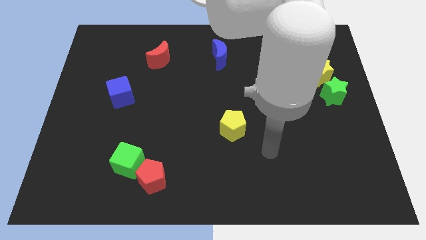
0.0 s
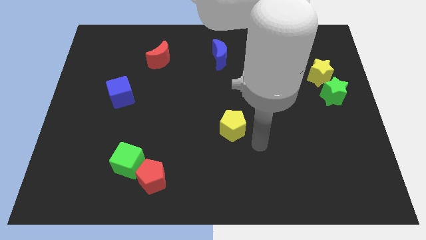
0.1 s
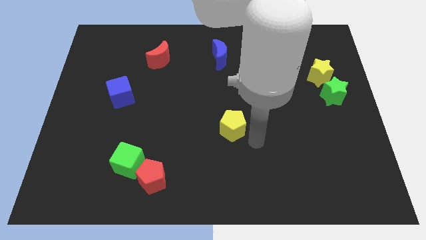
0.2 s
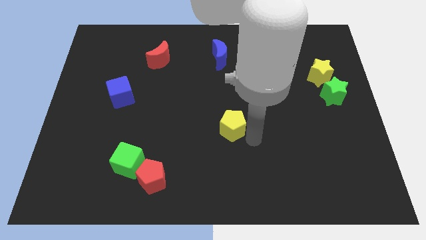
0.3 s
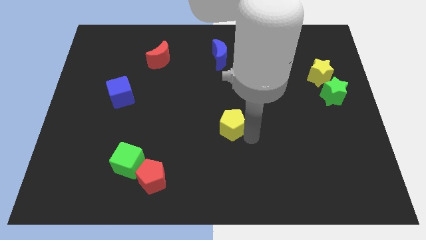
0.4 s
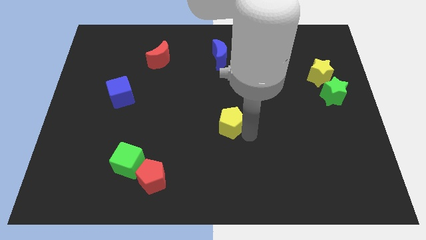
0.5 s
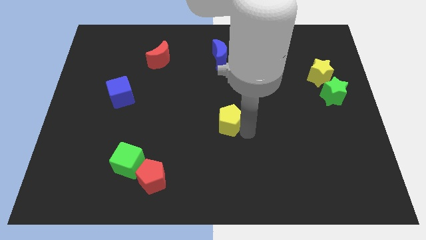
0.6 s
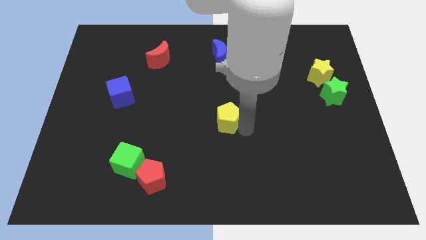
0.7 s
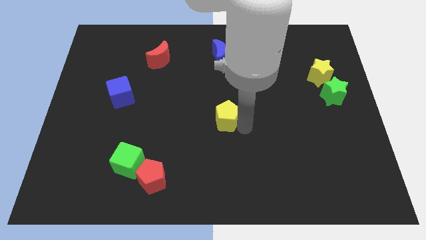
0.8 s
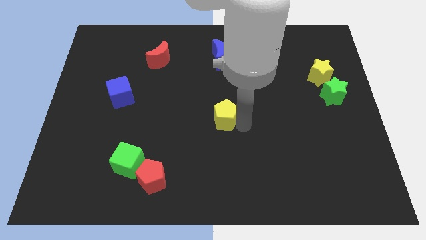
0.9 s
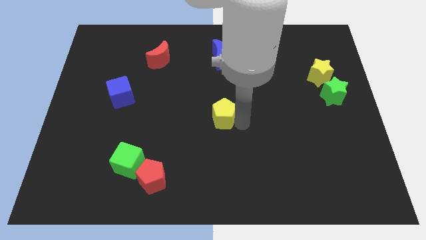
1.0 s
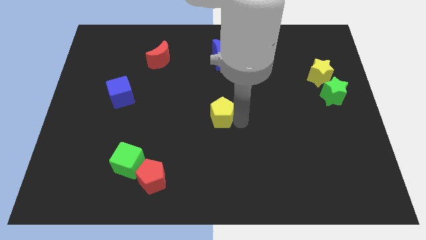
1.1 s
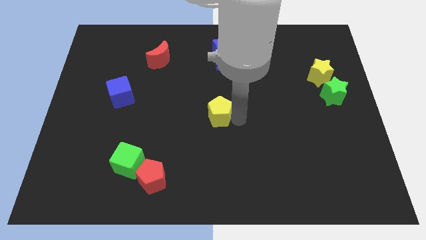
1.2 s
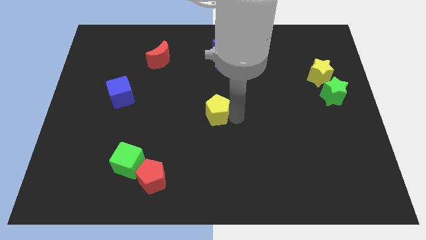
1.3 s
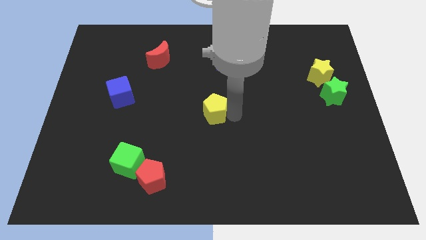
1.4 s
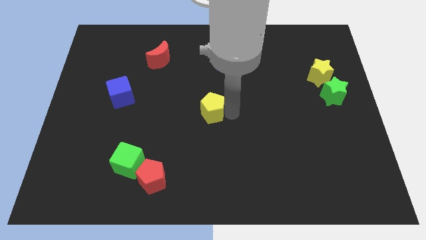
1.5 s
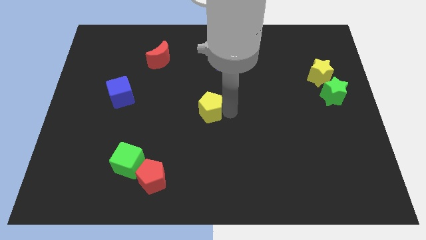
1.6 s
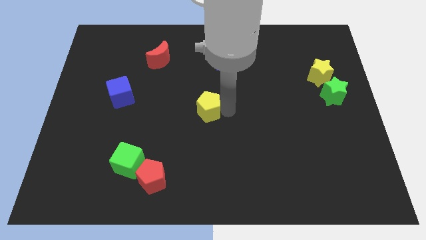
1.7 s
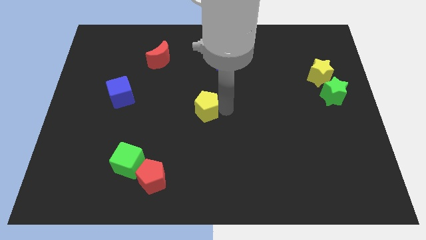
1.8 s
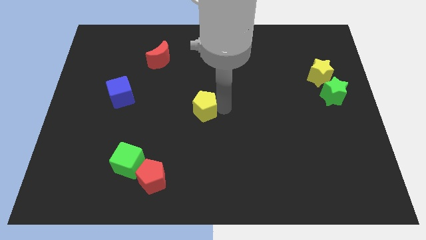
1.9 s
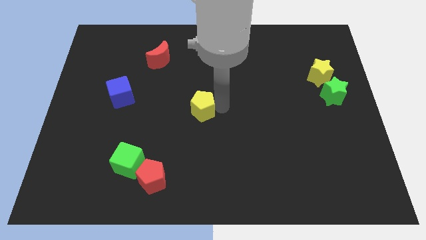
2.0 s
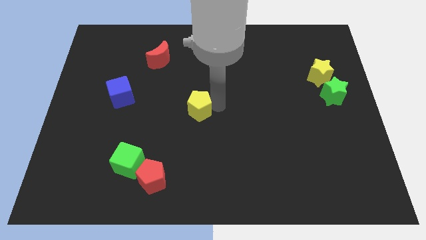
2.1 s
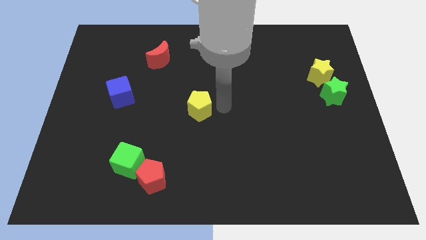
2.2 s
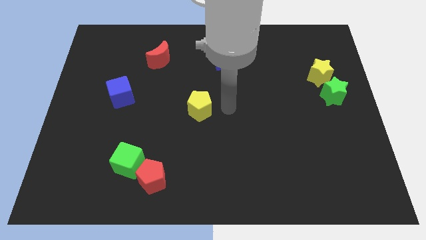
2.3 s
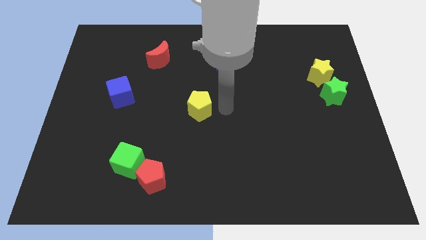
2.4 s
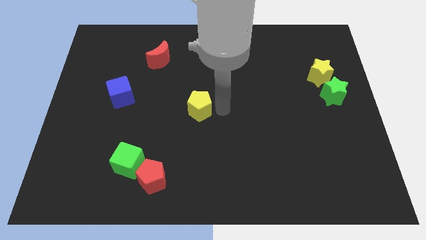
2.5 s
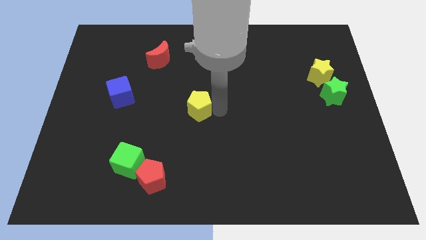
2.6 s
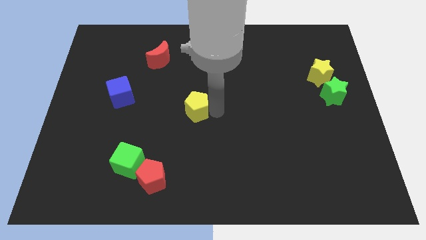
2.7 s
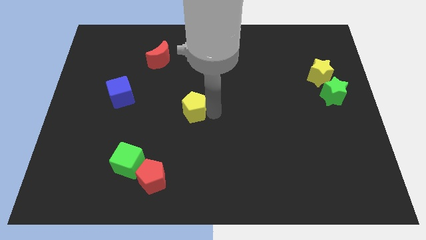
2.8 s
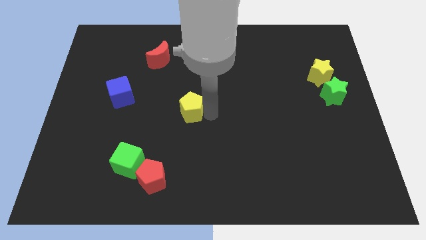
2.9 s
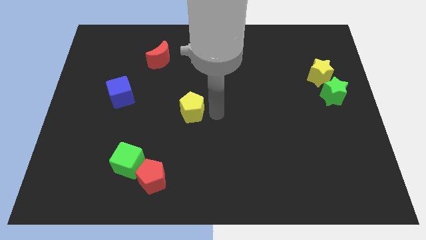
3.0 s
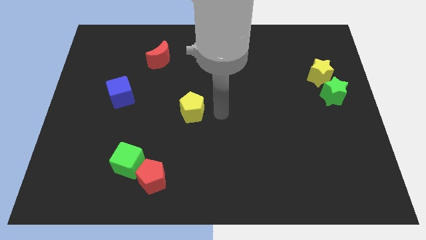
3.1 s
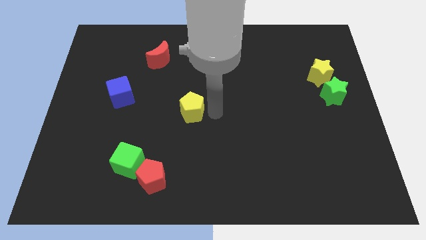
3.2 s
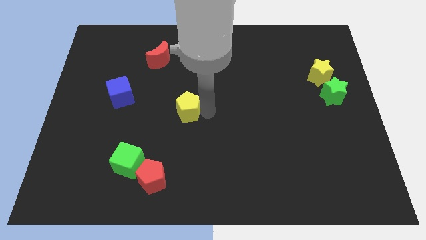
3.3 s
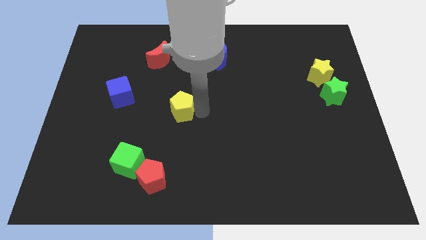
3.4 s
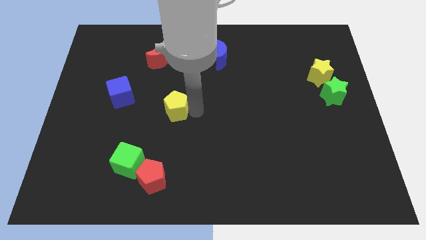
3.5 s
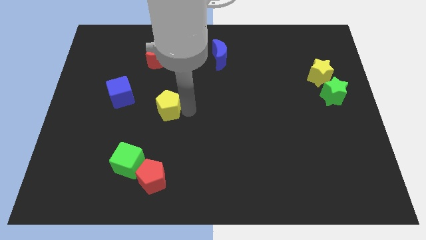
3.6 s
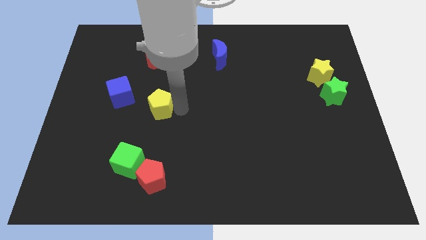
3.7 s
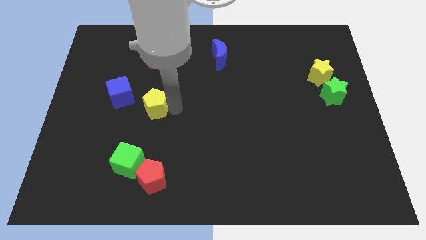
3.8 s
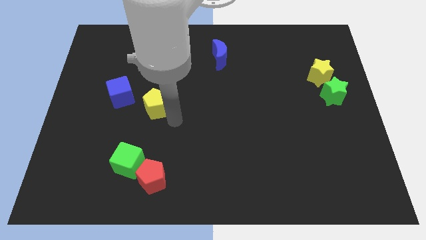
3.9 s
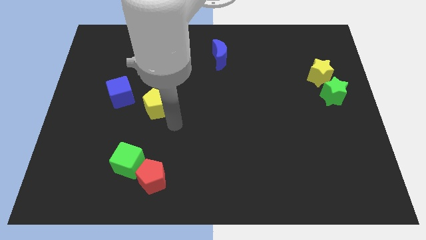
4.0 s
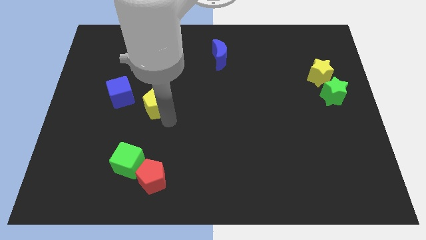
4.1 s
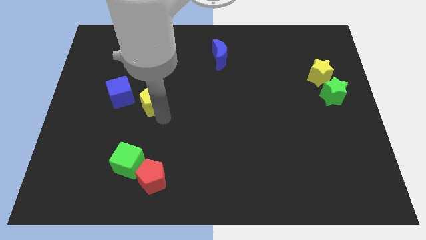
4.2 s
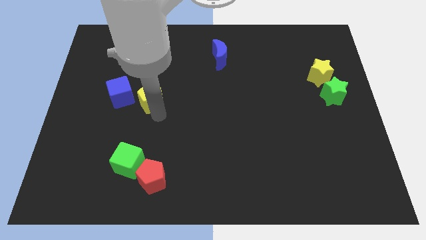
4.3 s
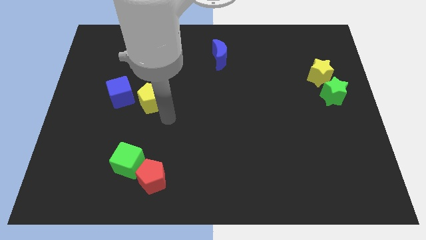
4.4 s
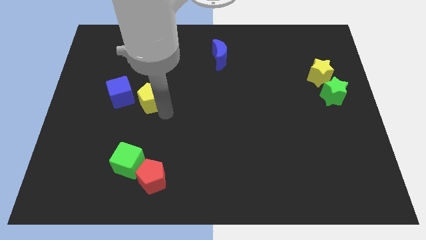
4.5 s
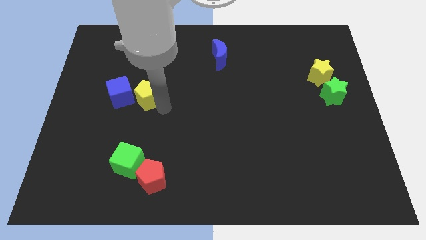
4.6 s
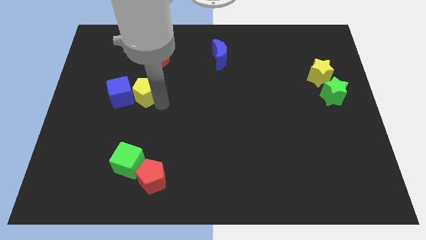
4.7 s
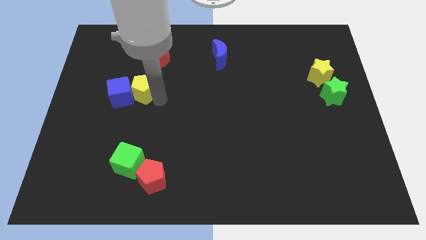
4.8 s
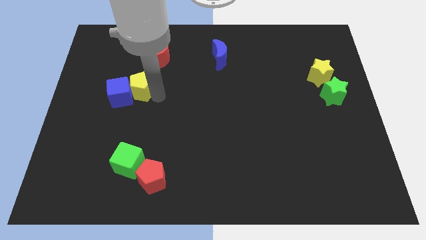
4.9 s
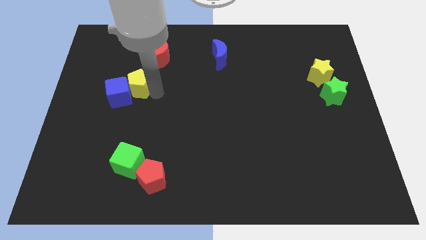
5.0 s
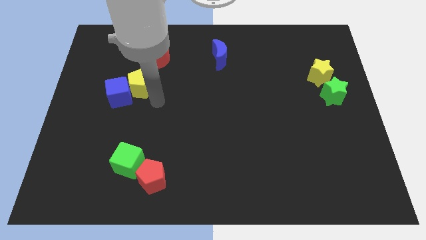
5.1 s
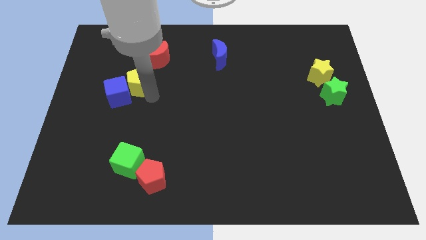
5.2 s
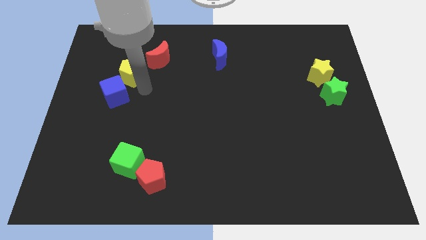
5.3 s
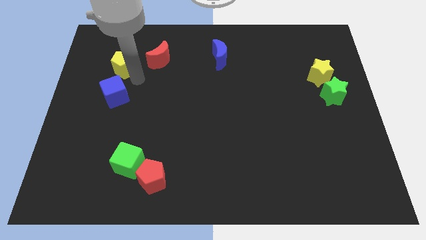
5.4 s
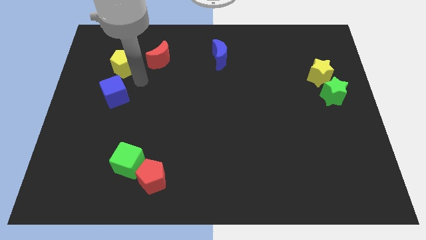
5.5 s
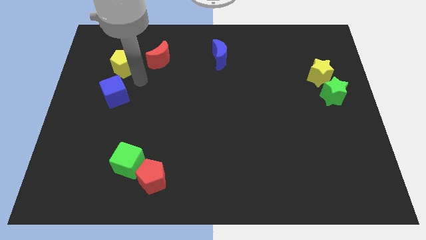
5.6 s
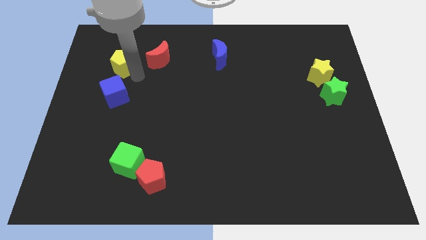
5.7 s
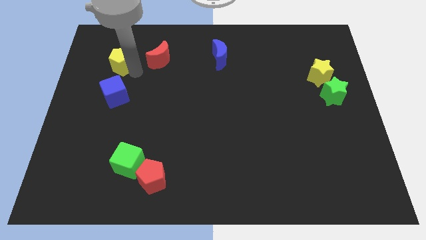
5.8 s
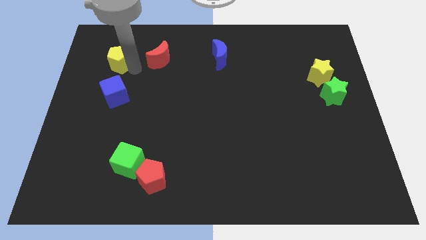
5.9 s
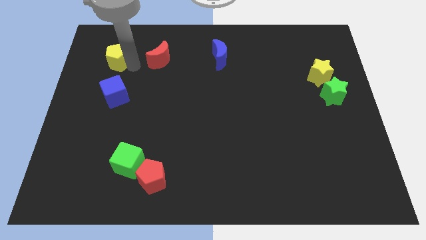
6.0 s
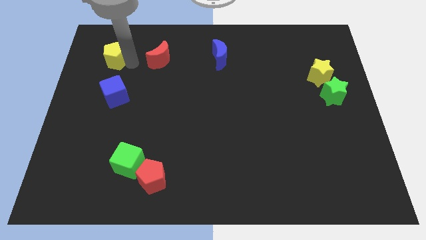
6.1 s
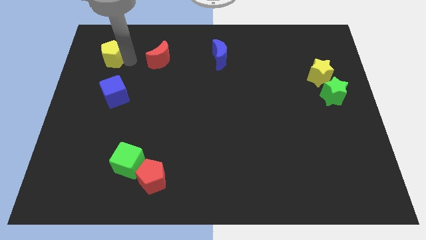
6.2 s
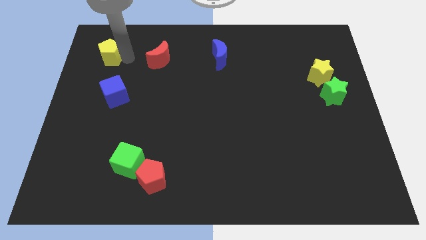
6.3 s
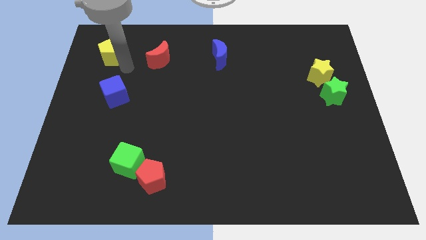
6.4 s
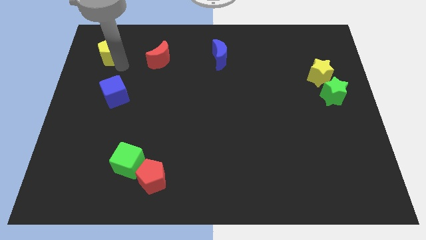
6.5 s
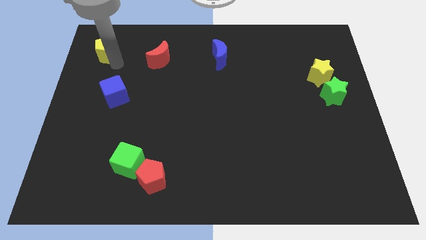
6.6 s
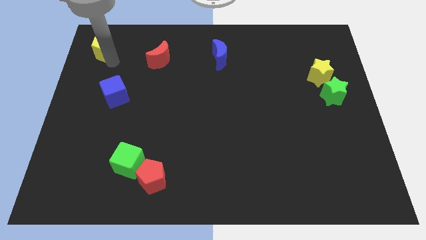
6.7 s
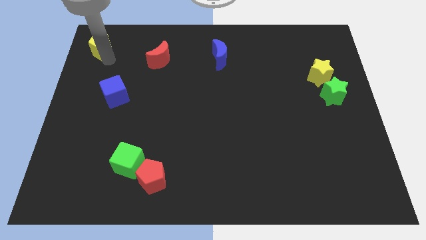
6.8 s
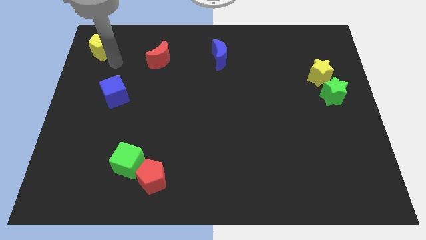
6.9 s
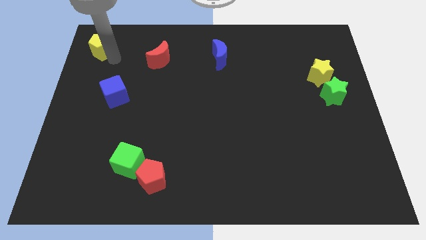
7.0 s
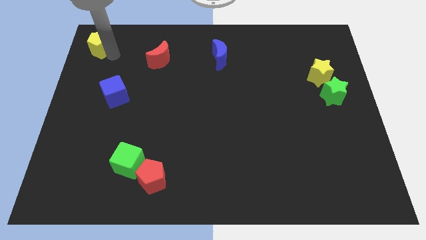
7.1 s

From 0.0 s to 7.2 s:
push the yellow pentagon to the top left of the board
